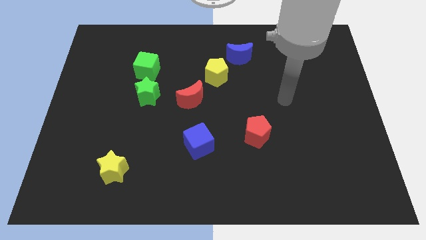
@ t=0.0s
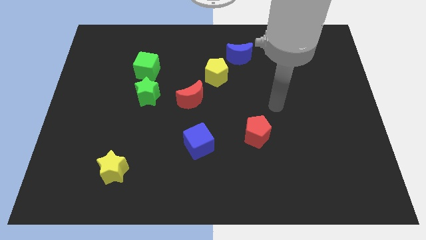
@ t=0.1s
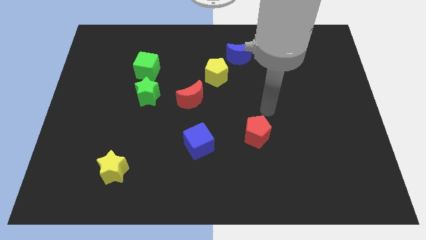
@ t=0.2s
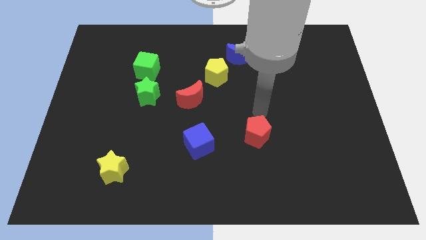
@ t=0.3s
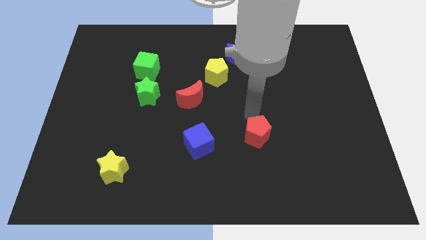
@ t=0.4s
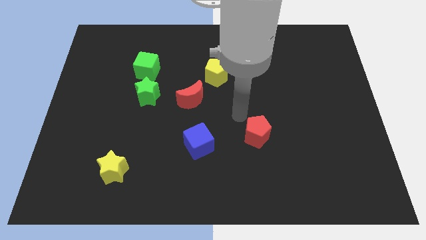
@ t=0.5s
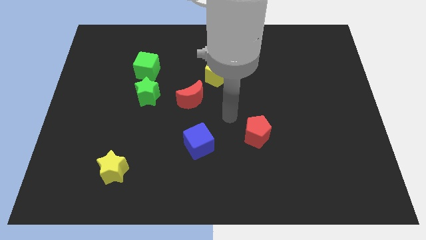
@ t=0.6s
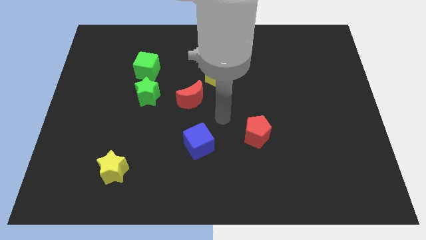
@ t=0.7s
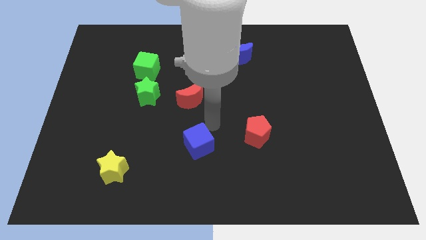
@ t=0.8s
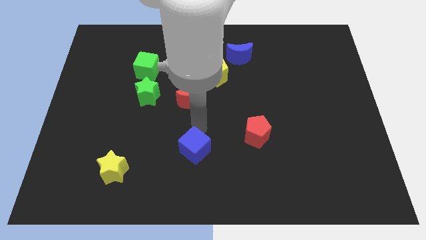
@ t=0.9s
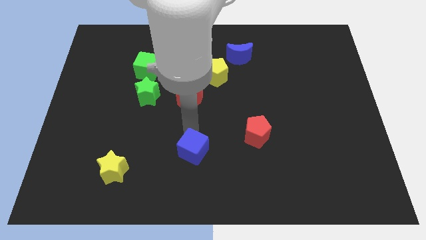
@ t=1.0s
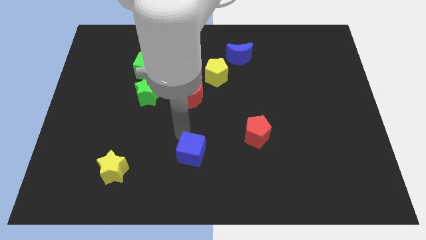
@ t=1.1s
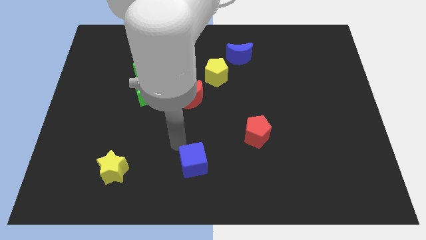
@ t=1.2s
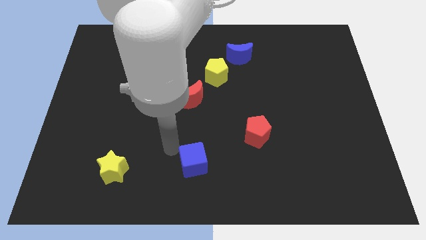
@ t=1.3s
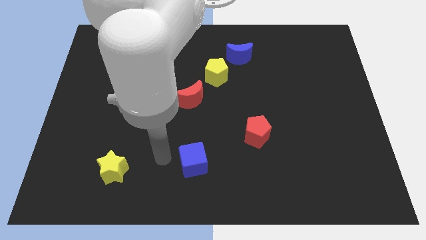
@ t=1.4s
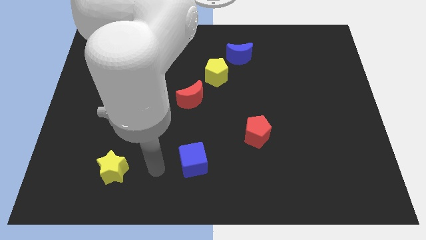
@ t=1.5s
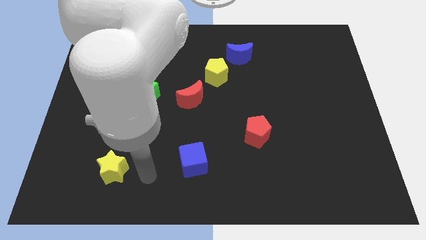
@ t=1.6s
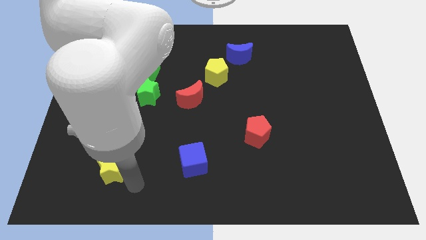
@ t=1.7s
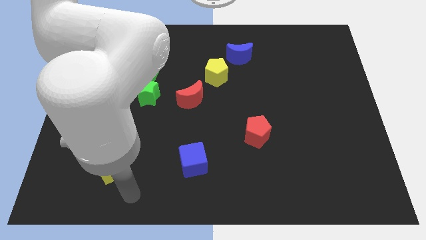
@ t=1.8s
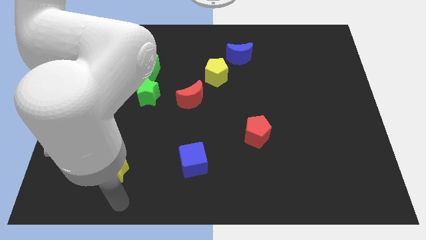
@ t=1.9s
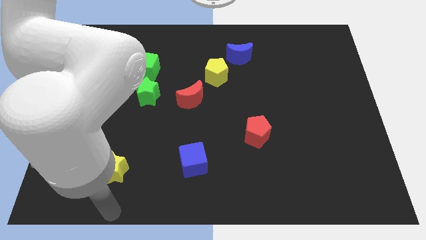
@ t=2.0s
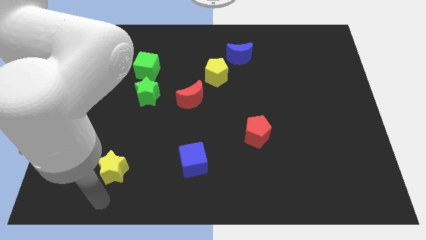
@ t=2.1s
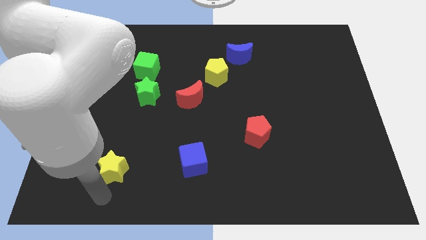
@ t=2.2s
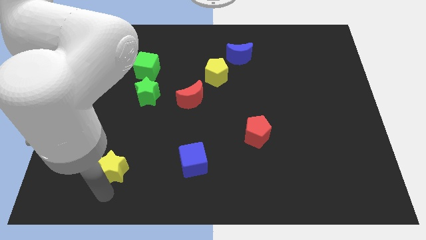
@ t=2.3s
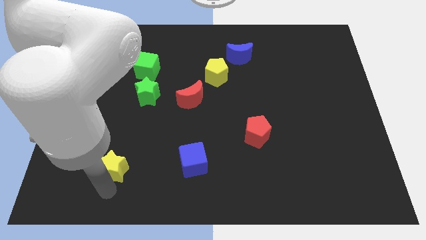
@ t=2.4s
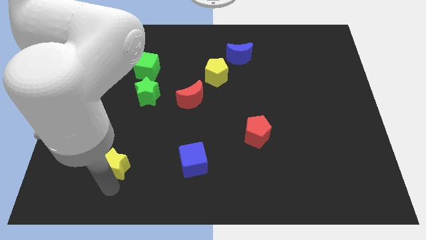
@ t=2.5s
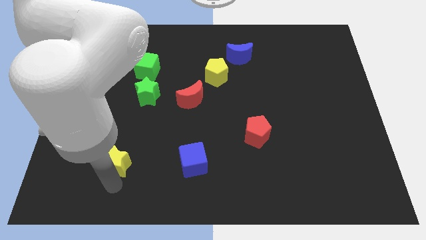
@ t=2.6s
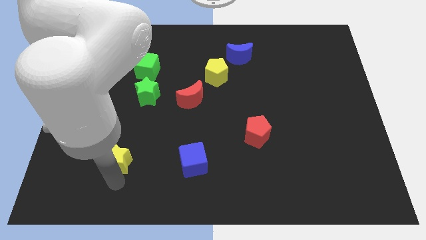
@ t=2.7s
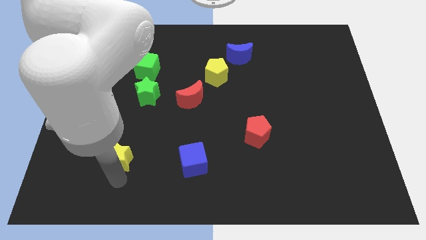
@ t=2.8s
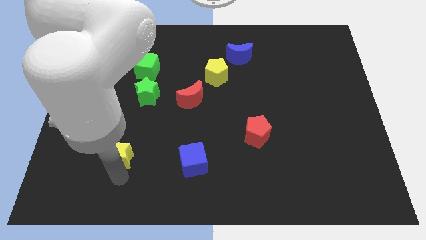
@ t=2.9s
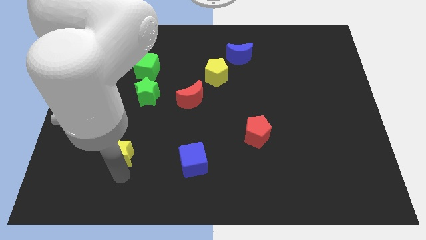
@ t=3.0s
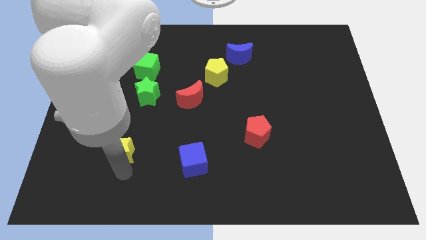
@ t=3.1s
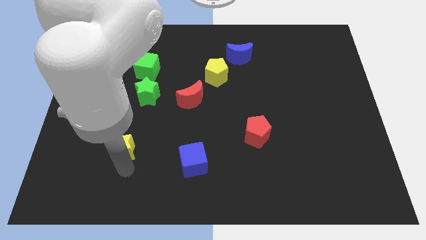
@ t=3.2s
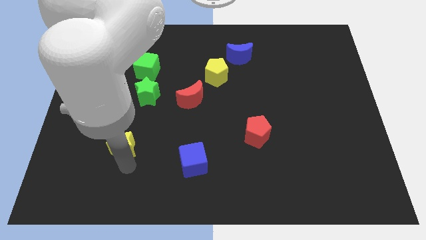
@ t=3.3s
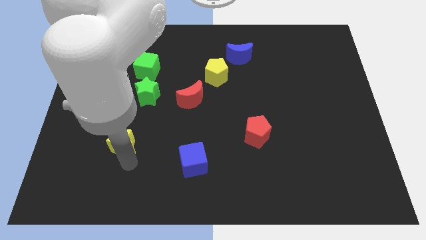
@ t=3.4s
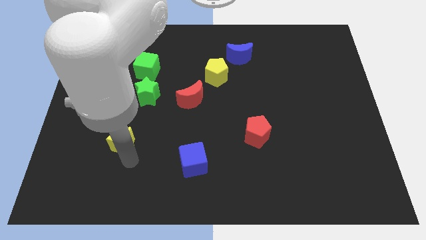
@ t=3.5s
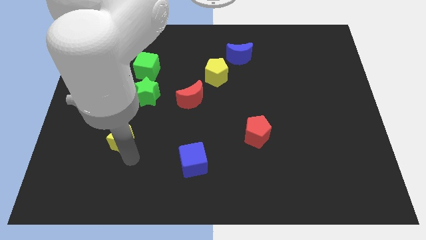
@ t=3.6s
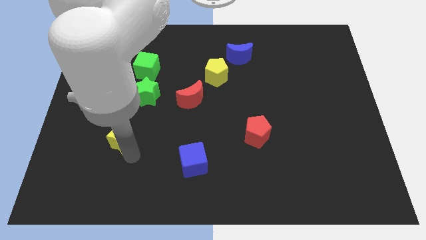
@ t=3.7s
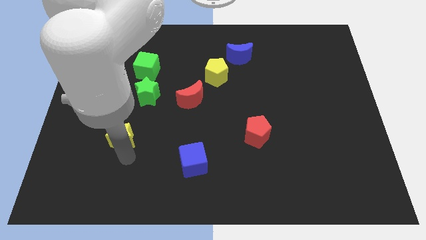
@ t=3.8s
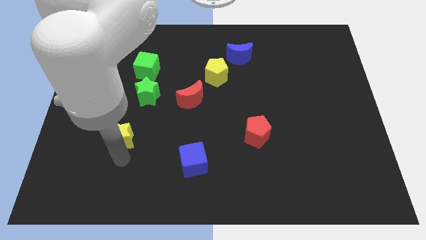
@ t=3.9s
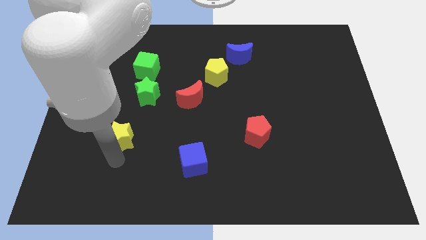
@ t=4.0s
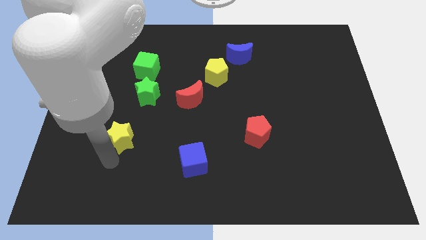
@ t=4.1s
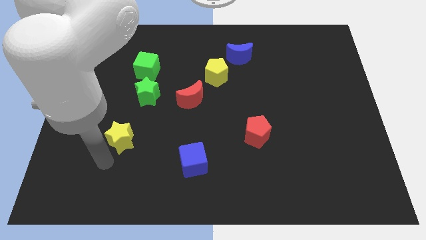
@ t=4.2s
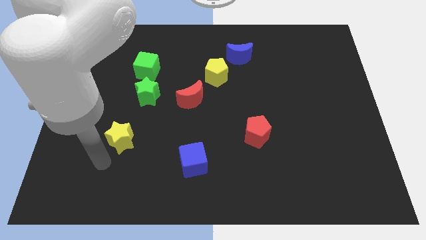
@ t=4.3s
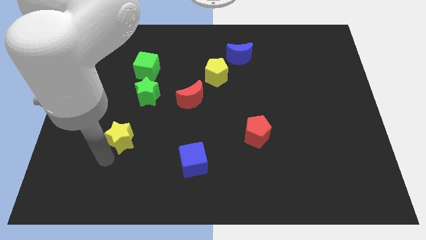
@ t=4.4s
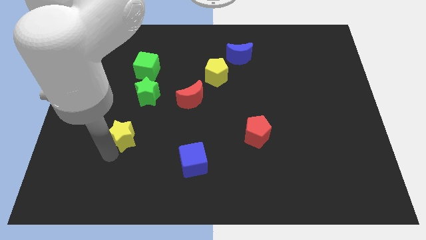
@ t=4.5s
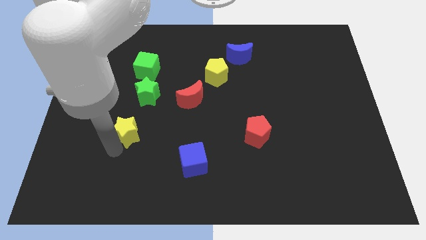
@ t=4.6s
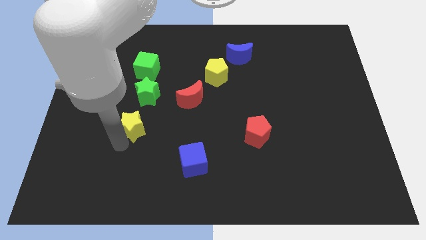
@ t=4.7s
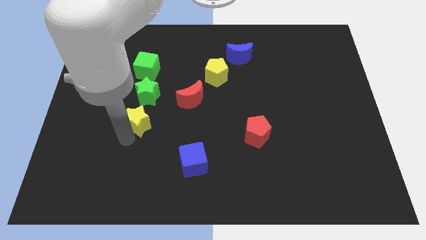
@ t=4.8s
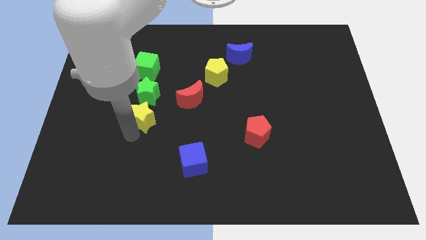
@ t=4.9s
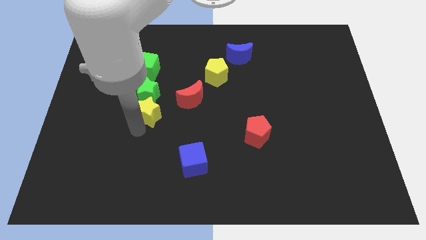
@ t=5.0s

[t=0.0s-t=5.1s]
push the yellow star to the green star

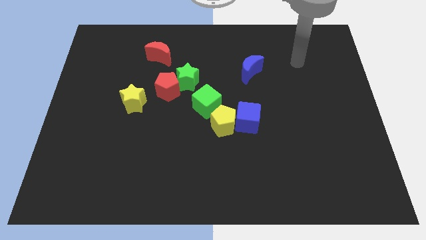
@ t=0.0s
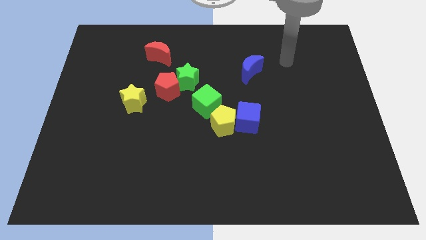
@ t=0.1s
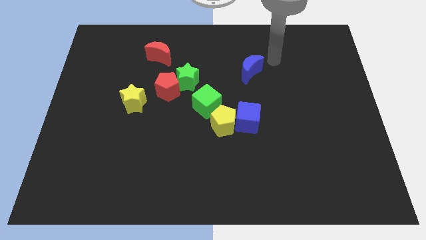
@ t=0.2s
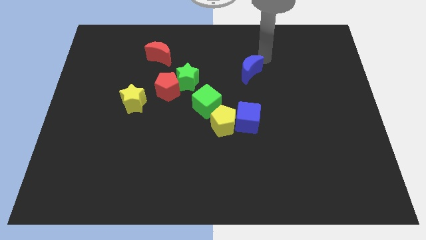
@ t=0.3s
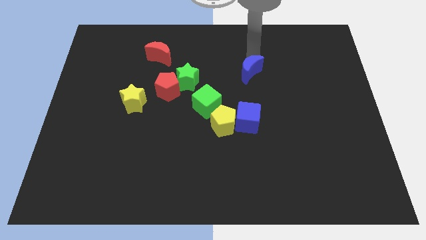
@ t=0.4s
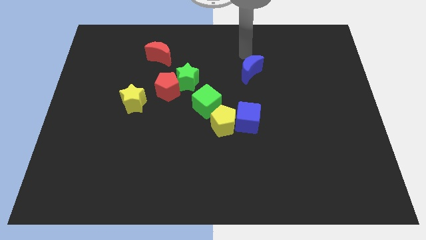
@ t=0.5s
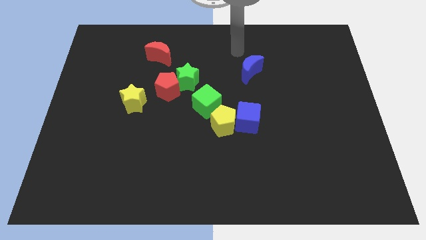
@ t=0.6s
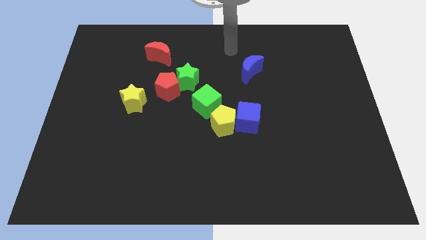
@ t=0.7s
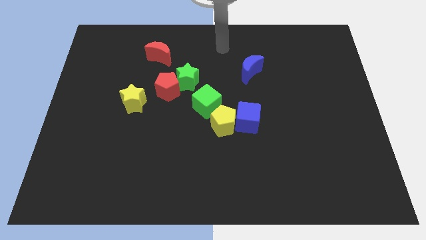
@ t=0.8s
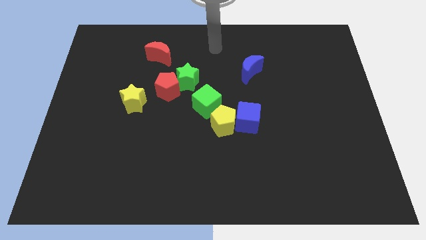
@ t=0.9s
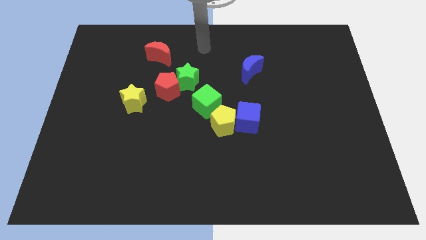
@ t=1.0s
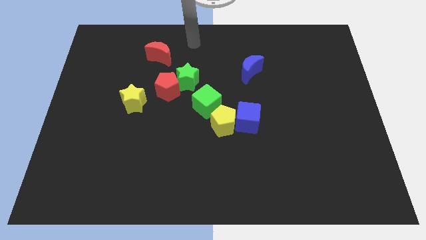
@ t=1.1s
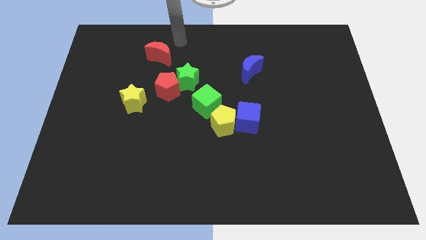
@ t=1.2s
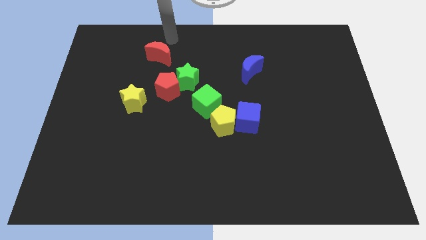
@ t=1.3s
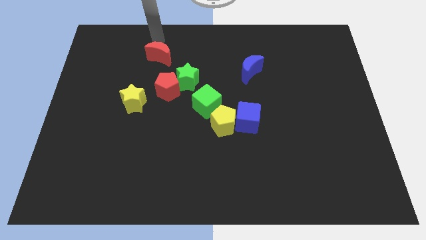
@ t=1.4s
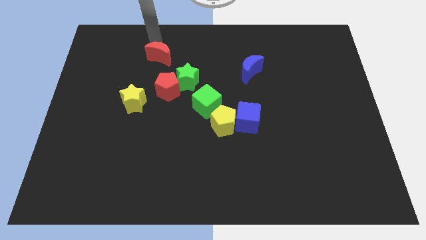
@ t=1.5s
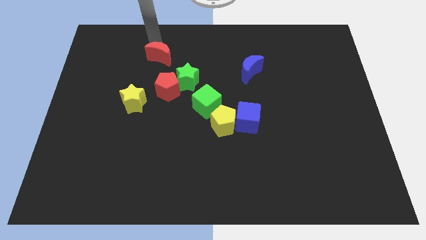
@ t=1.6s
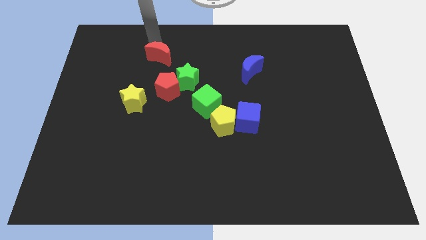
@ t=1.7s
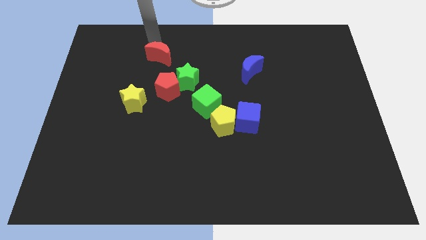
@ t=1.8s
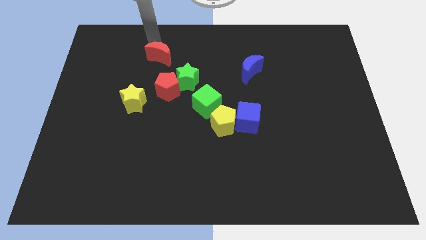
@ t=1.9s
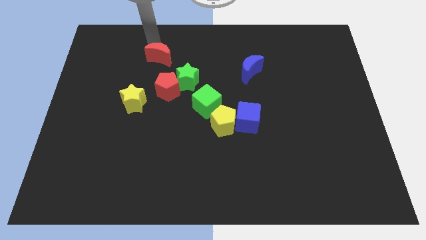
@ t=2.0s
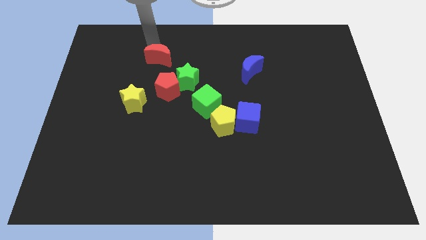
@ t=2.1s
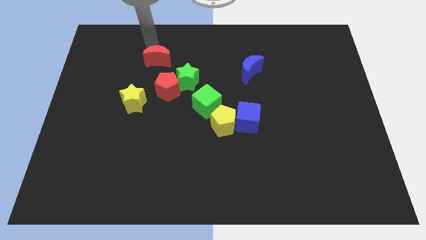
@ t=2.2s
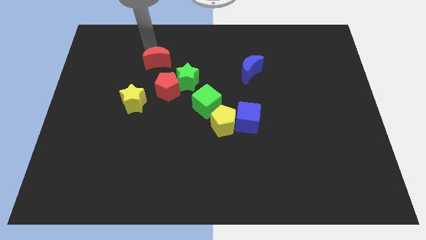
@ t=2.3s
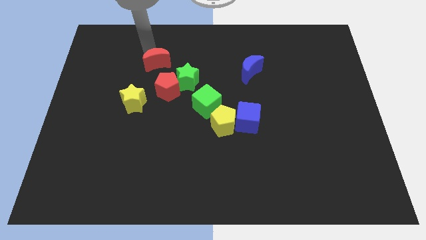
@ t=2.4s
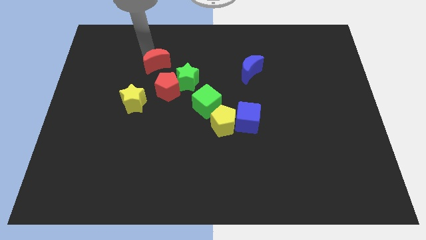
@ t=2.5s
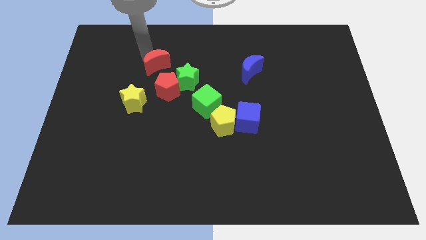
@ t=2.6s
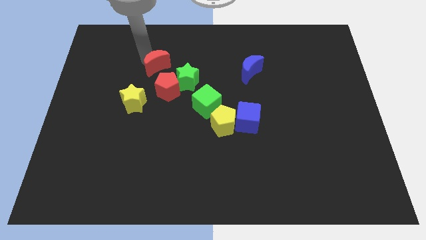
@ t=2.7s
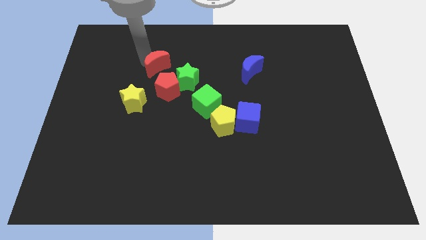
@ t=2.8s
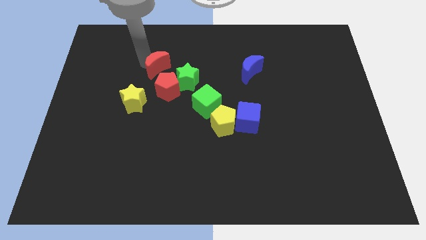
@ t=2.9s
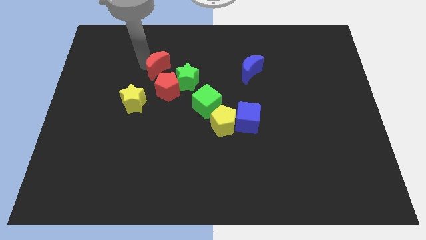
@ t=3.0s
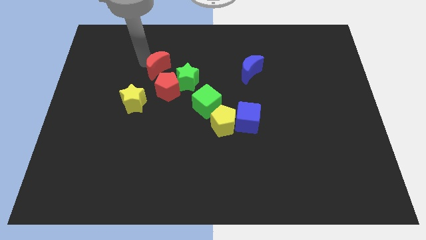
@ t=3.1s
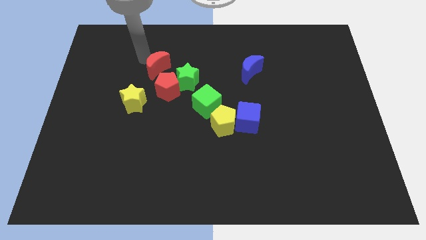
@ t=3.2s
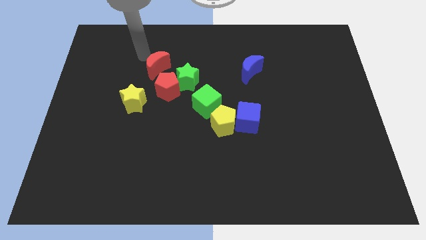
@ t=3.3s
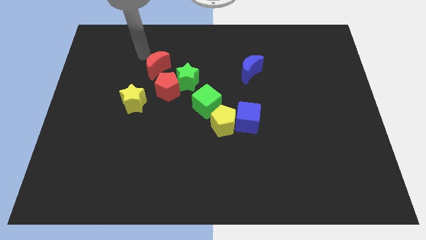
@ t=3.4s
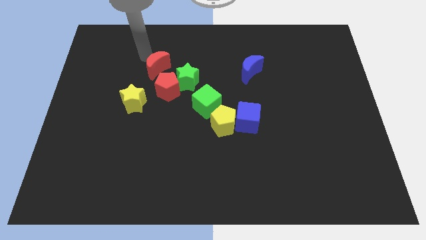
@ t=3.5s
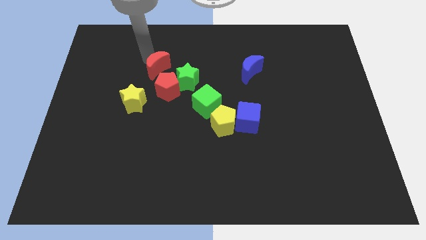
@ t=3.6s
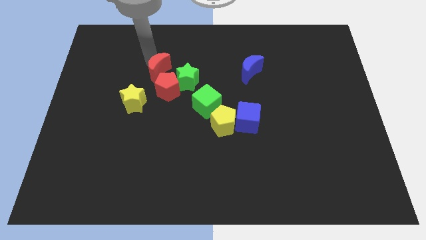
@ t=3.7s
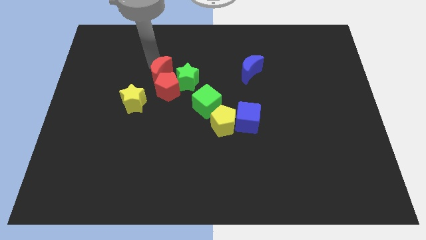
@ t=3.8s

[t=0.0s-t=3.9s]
push the red moon next to the red pentagon
